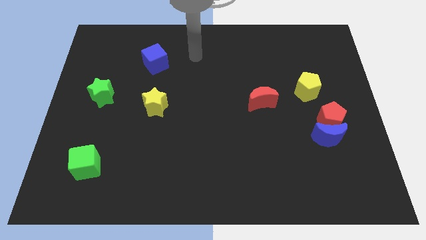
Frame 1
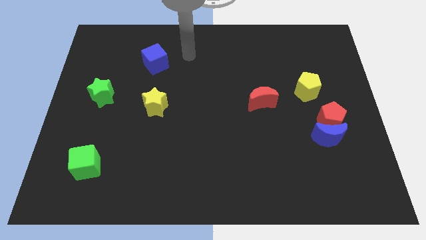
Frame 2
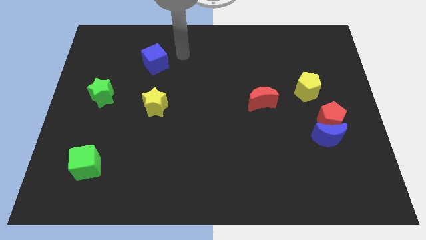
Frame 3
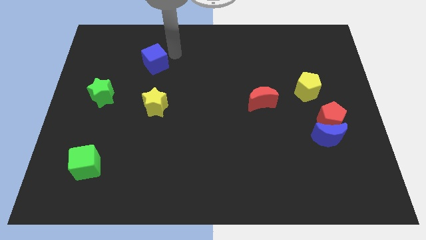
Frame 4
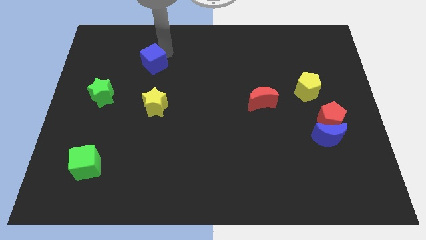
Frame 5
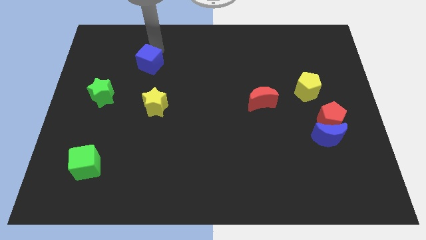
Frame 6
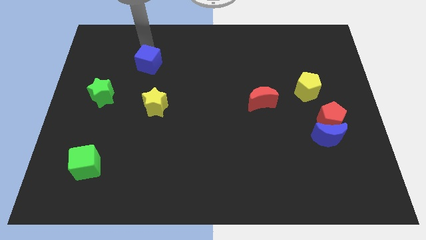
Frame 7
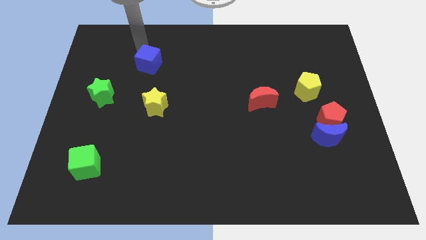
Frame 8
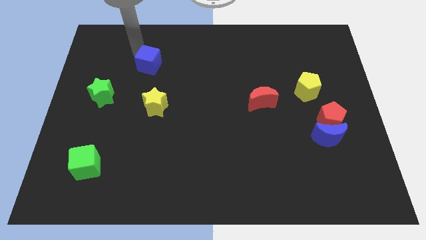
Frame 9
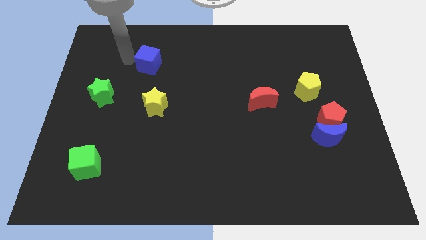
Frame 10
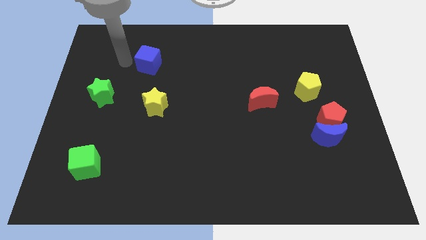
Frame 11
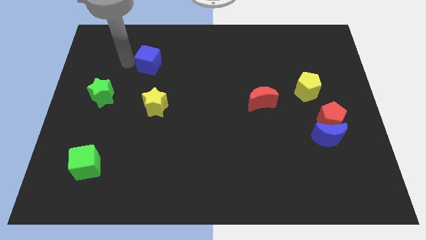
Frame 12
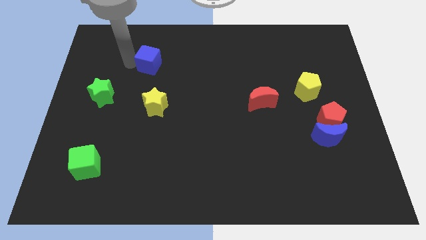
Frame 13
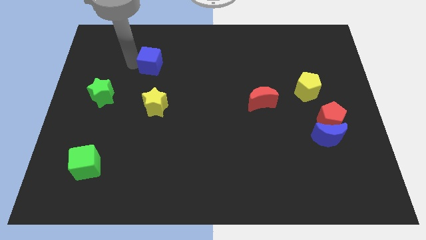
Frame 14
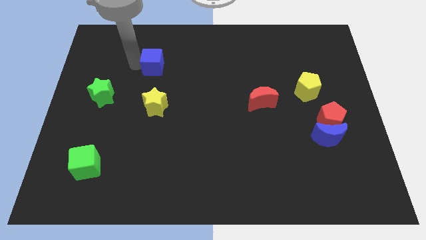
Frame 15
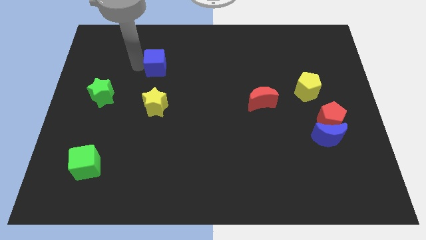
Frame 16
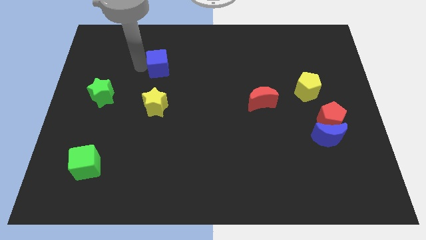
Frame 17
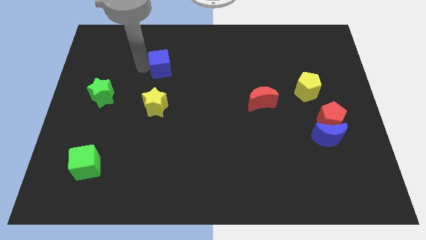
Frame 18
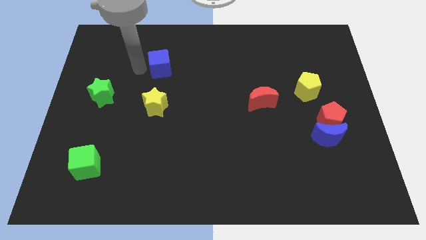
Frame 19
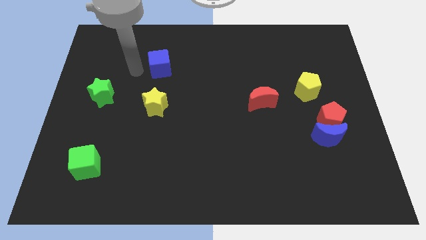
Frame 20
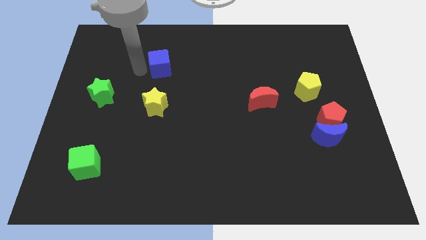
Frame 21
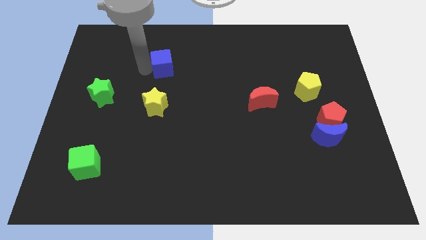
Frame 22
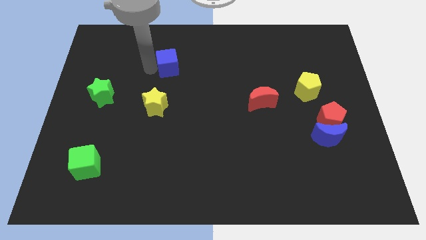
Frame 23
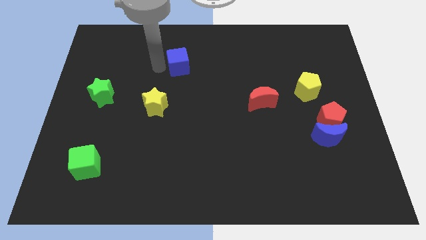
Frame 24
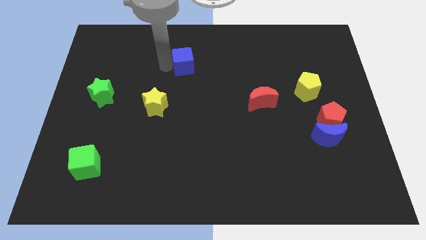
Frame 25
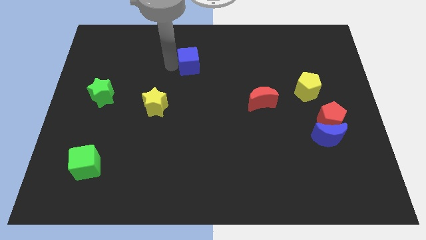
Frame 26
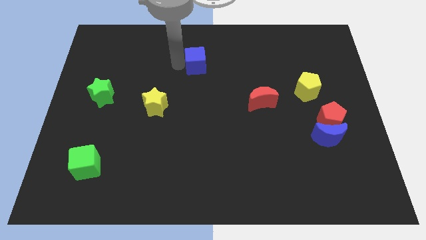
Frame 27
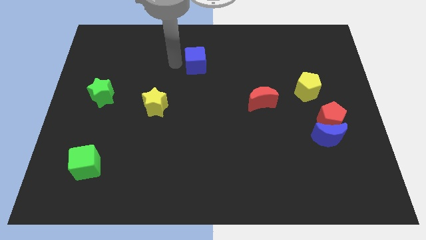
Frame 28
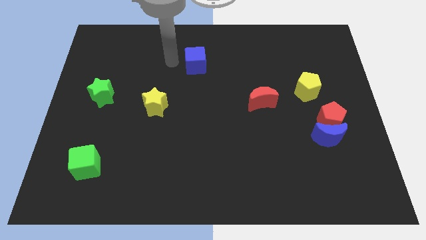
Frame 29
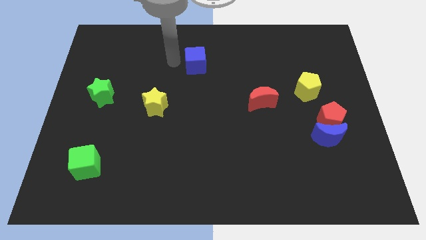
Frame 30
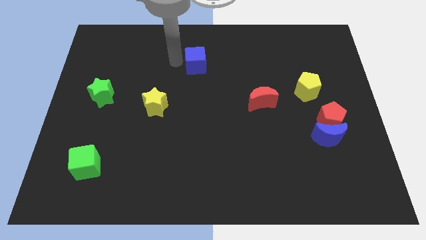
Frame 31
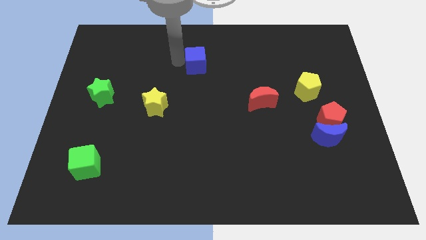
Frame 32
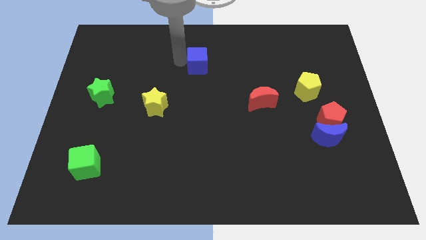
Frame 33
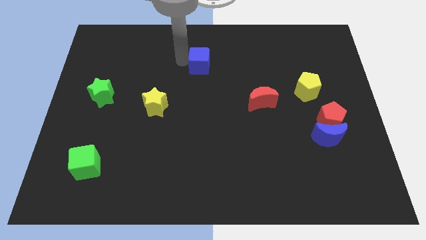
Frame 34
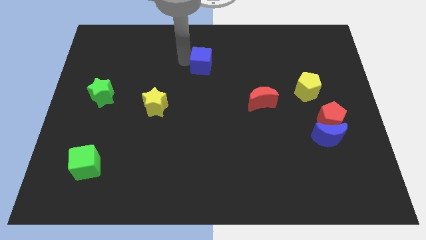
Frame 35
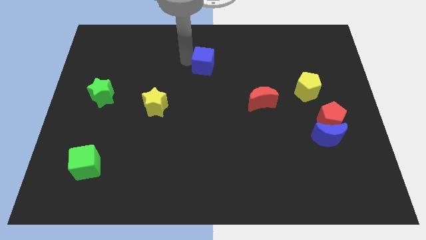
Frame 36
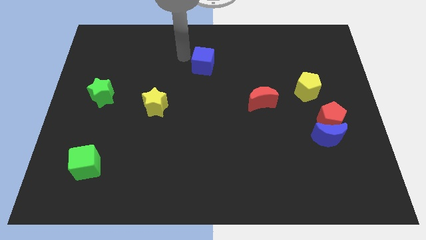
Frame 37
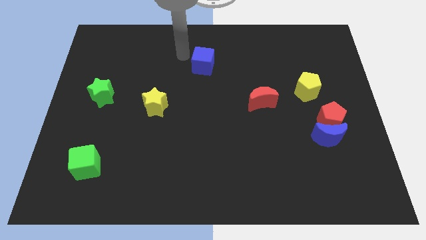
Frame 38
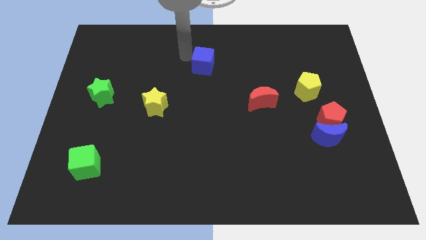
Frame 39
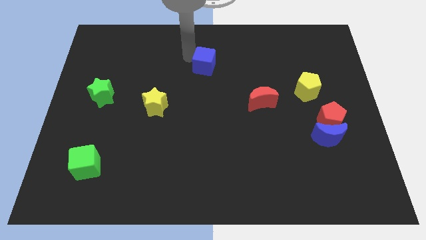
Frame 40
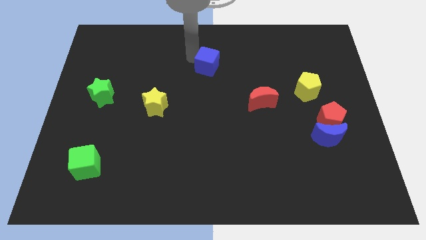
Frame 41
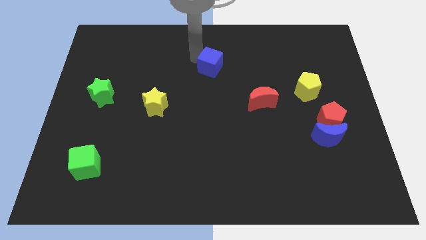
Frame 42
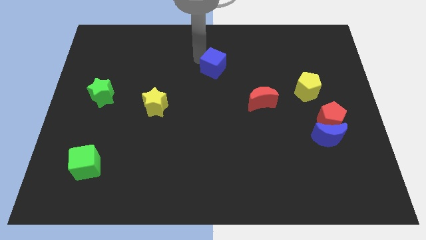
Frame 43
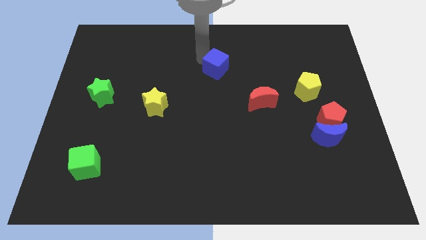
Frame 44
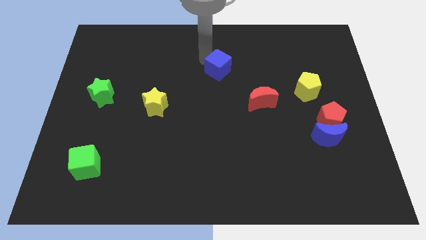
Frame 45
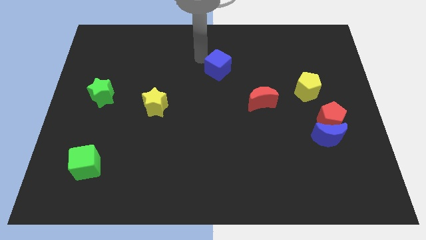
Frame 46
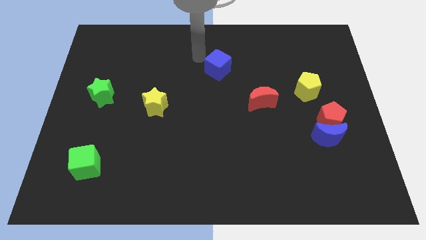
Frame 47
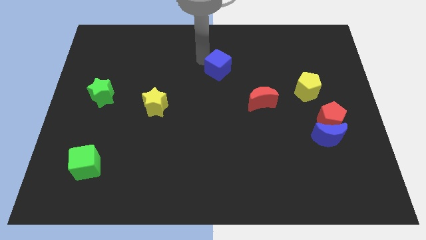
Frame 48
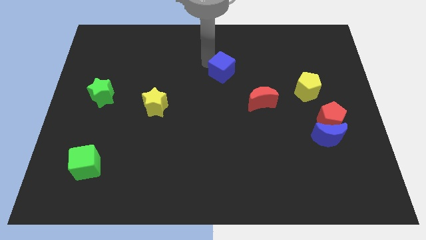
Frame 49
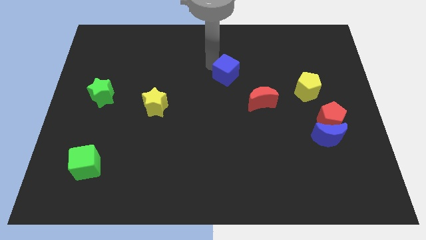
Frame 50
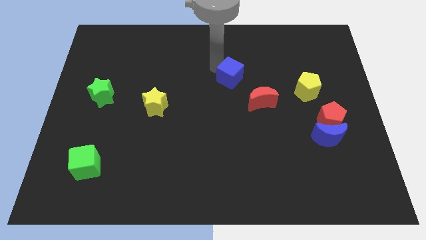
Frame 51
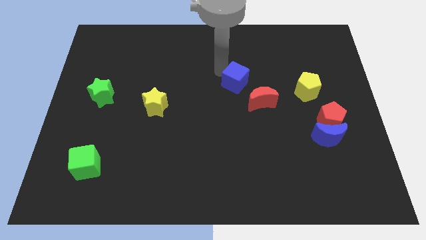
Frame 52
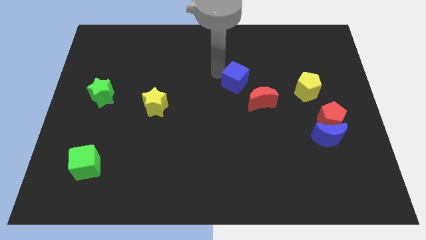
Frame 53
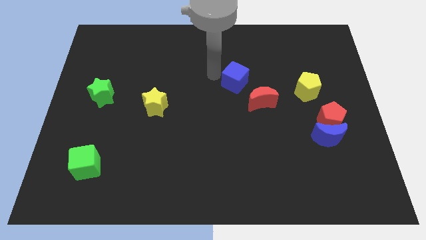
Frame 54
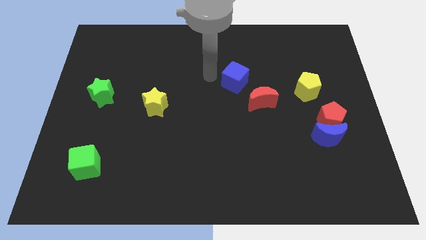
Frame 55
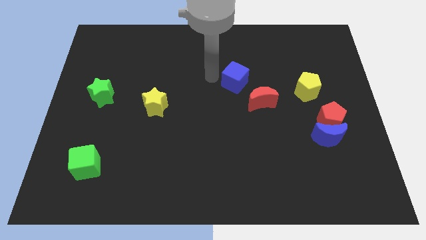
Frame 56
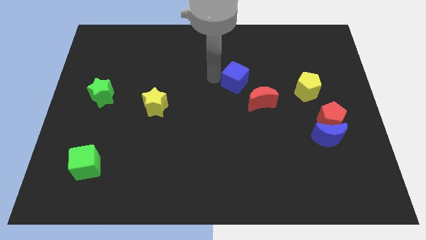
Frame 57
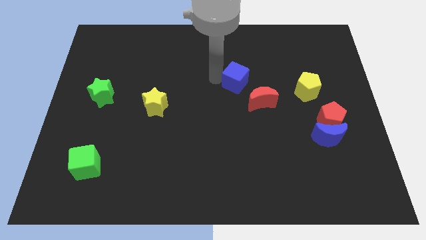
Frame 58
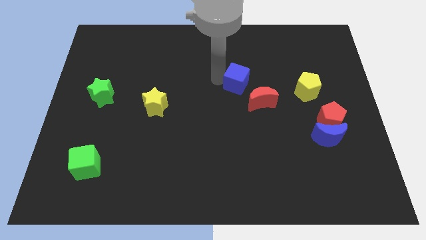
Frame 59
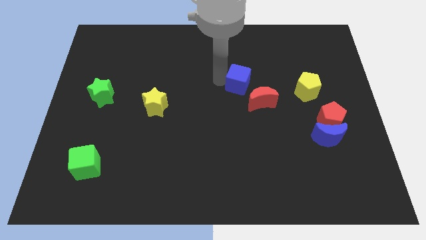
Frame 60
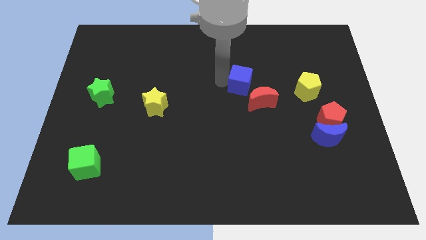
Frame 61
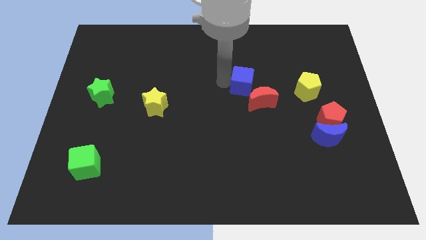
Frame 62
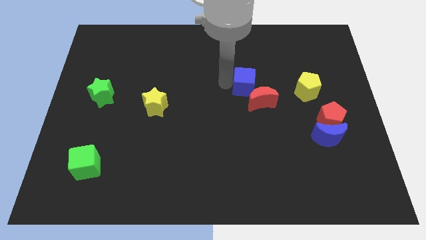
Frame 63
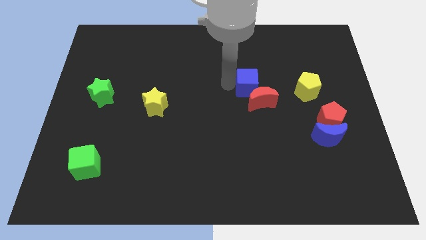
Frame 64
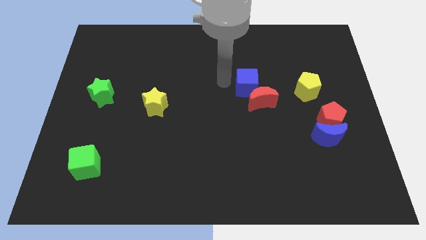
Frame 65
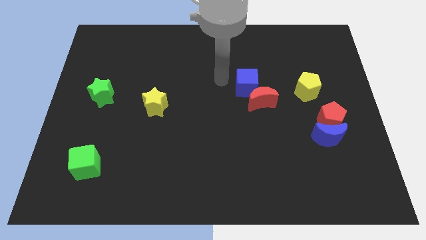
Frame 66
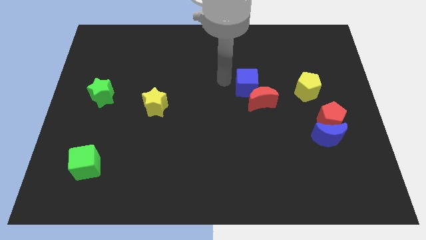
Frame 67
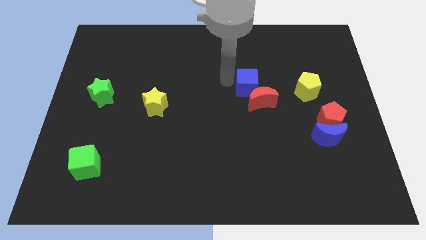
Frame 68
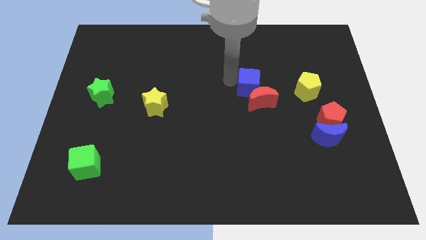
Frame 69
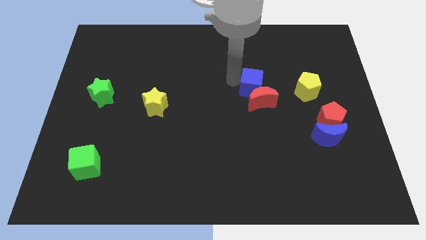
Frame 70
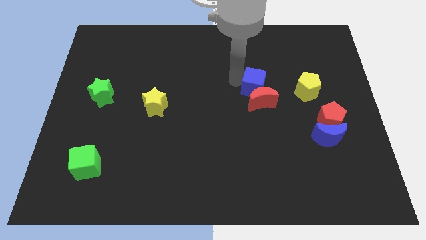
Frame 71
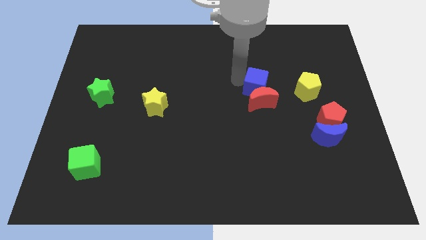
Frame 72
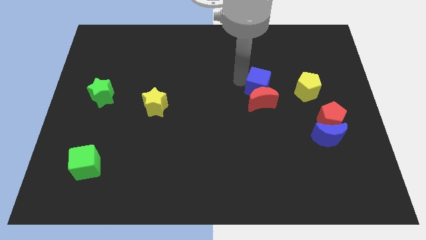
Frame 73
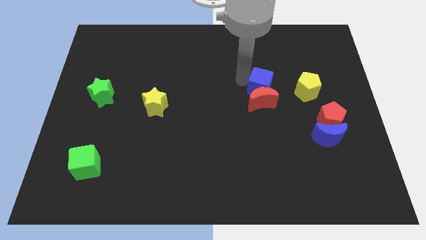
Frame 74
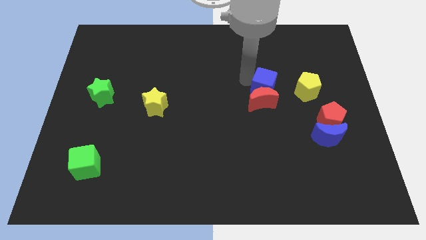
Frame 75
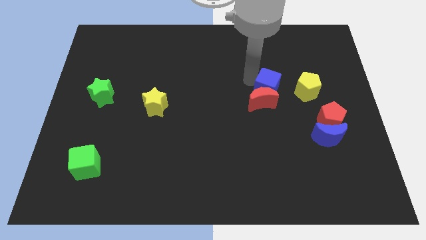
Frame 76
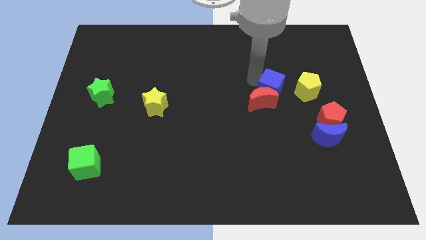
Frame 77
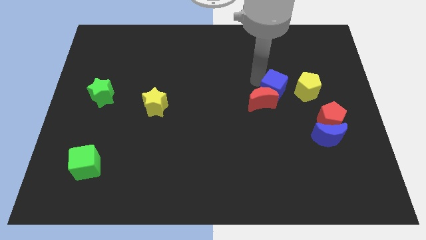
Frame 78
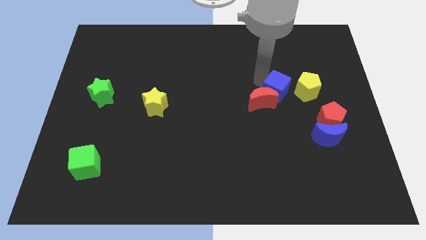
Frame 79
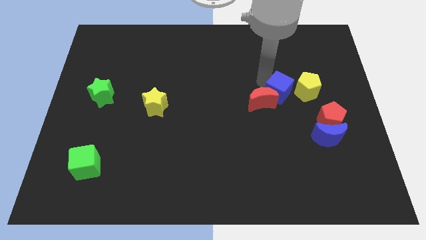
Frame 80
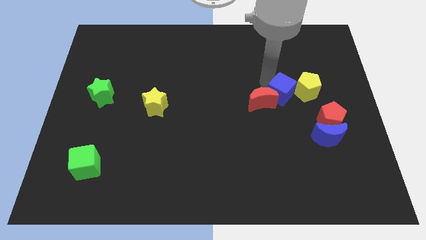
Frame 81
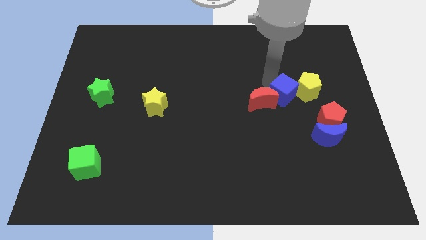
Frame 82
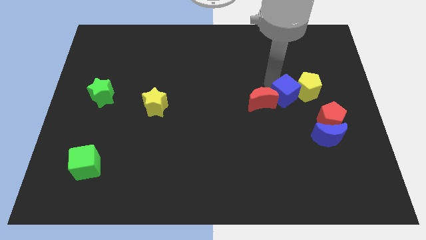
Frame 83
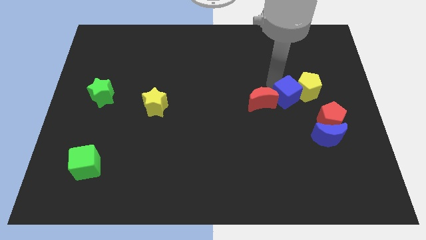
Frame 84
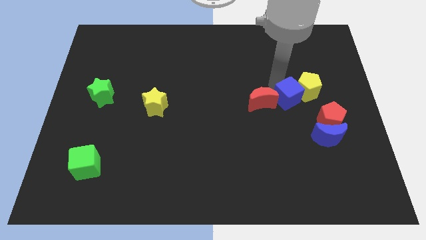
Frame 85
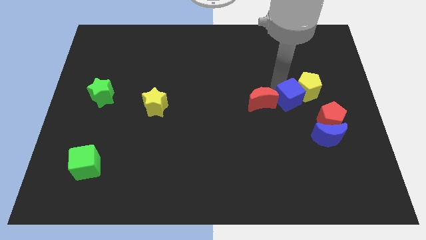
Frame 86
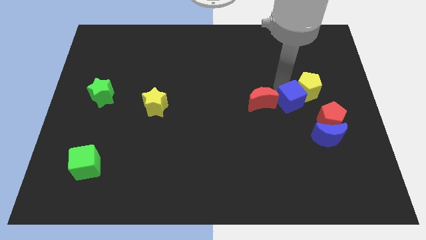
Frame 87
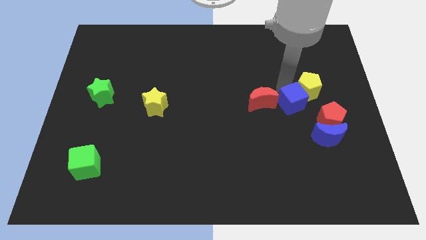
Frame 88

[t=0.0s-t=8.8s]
slide the blue cube to the top left of the blue moon
